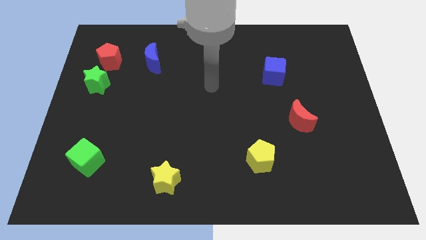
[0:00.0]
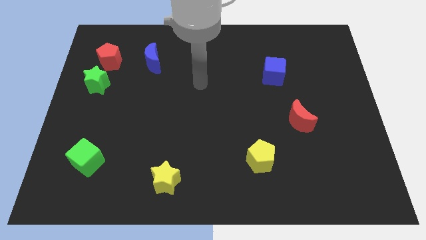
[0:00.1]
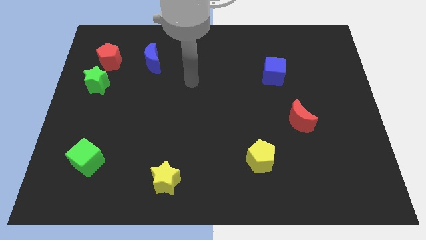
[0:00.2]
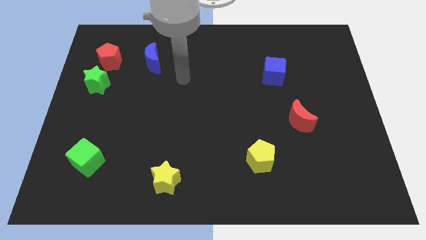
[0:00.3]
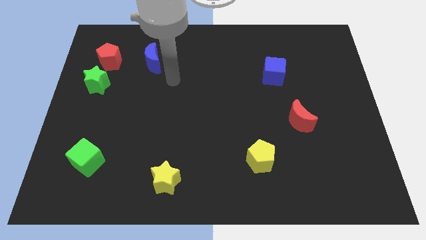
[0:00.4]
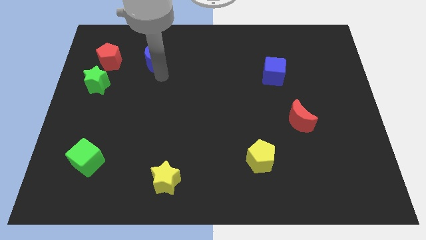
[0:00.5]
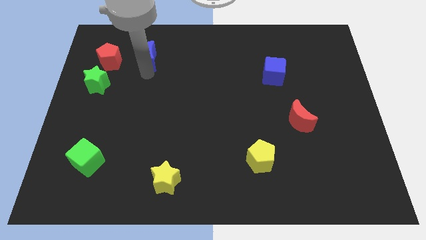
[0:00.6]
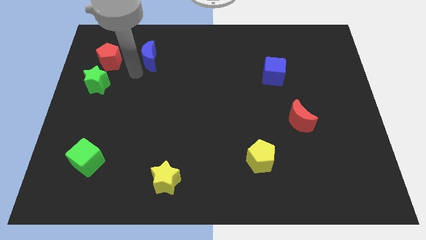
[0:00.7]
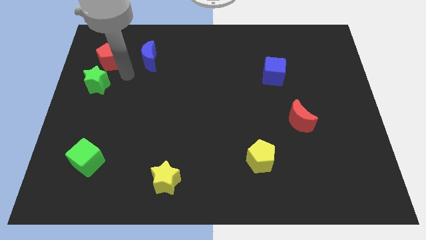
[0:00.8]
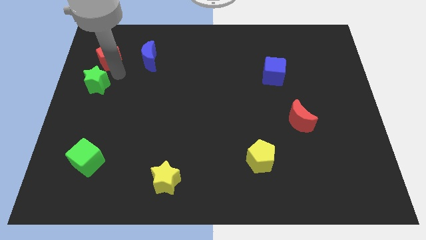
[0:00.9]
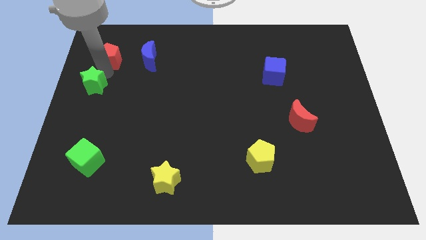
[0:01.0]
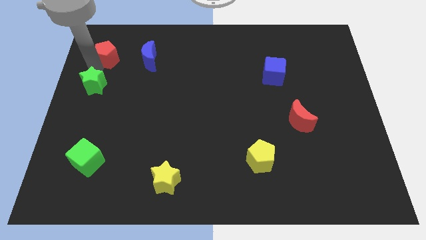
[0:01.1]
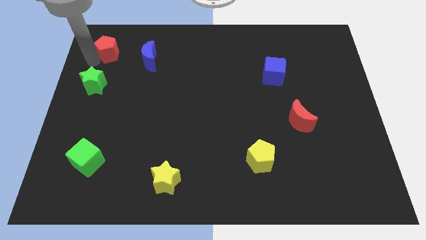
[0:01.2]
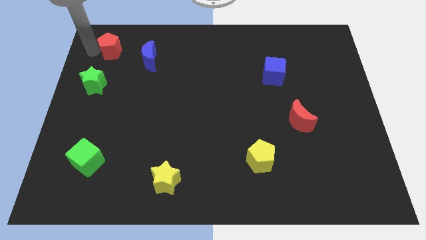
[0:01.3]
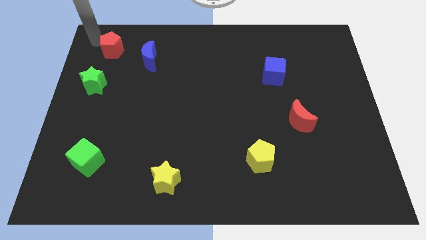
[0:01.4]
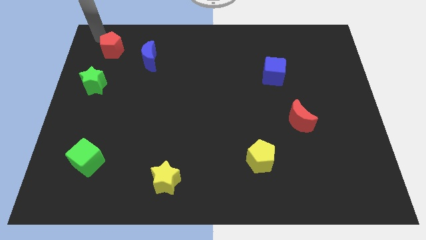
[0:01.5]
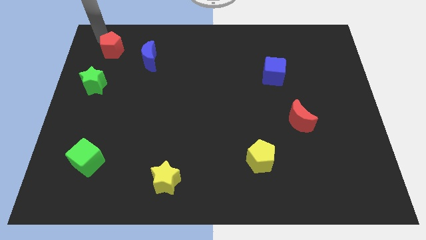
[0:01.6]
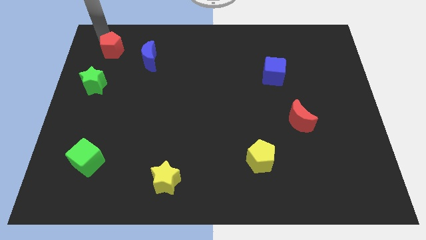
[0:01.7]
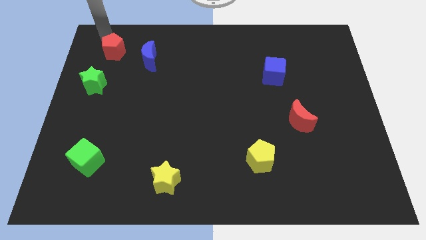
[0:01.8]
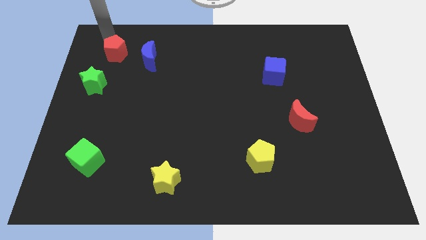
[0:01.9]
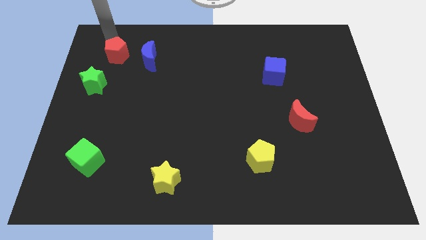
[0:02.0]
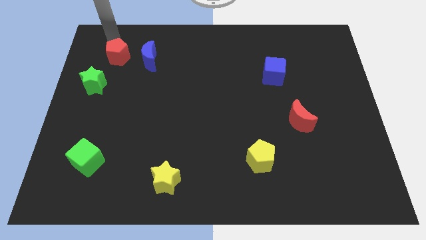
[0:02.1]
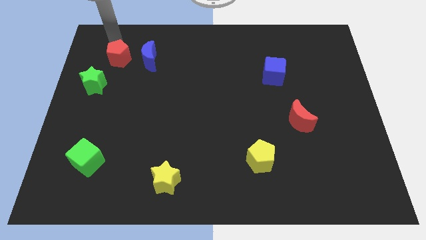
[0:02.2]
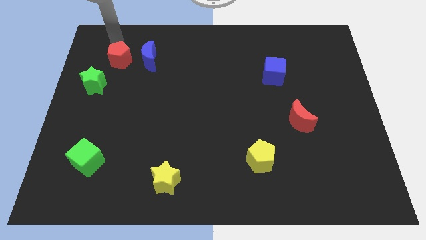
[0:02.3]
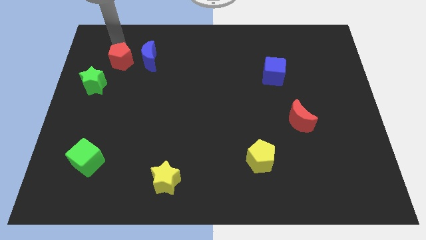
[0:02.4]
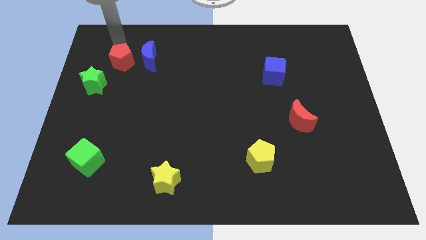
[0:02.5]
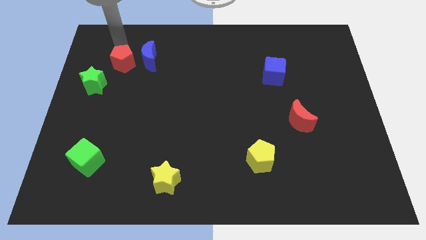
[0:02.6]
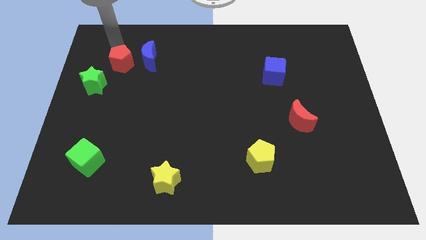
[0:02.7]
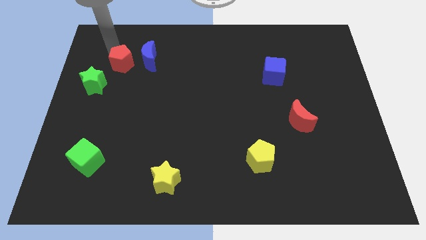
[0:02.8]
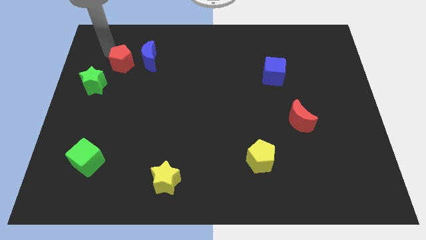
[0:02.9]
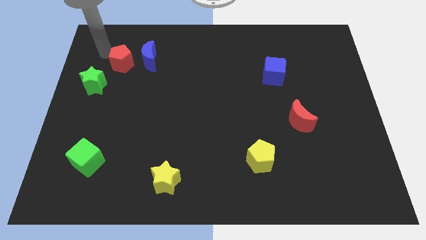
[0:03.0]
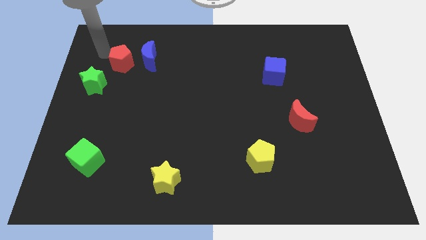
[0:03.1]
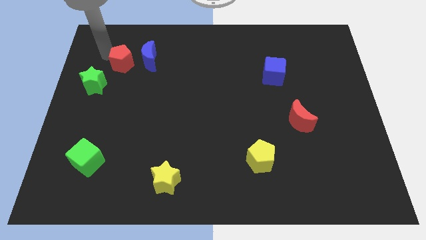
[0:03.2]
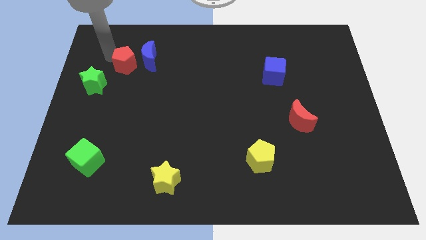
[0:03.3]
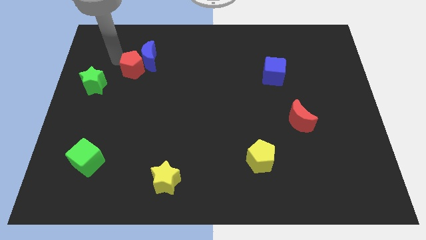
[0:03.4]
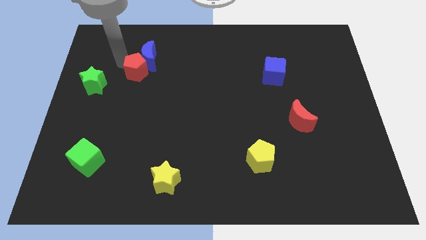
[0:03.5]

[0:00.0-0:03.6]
move the red pentagon to the right somewhat

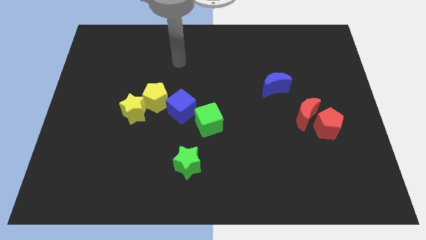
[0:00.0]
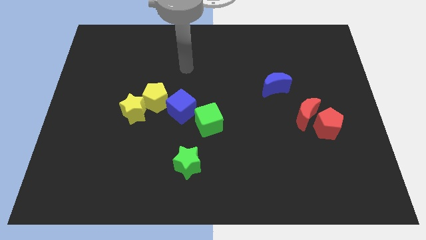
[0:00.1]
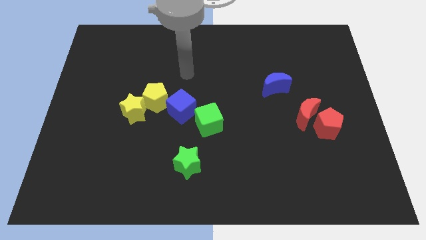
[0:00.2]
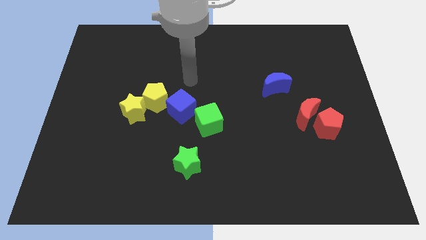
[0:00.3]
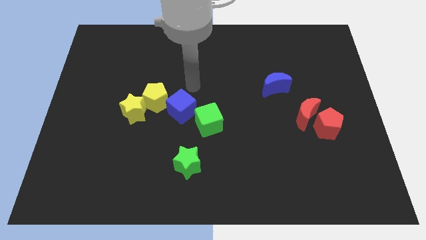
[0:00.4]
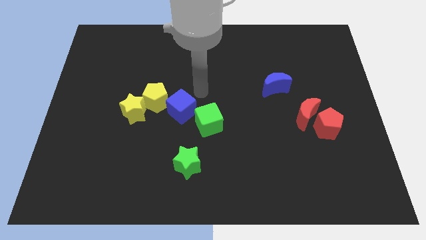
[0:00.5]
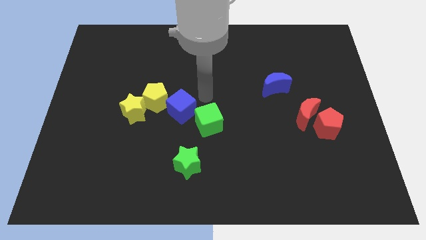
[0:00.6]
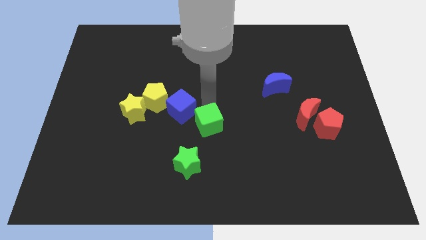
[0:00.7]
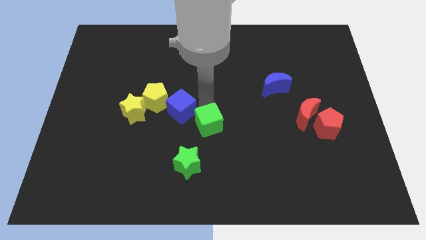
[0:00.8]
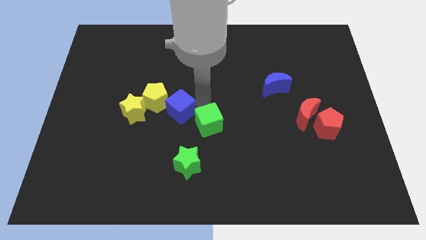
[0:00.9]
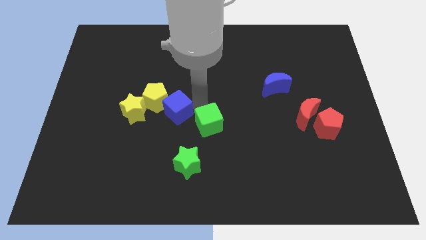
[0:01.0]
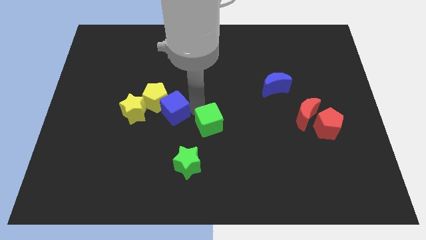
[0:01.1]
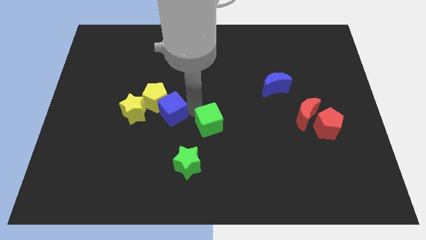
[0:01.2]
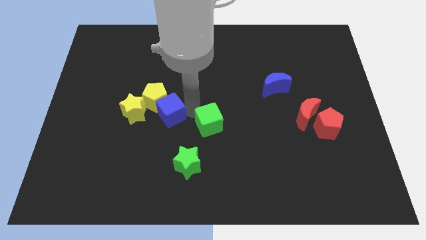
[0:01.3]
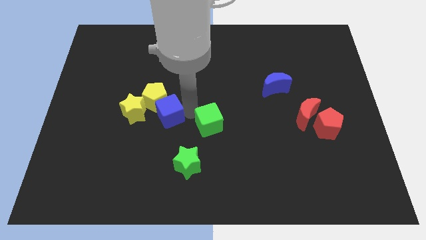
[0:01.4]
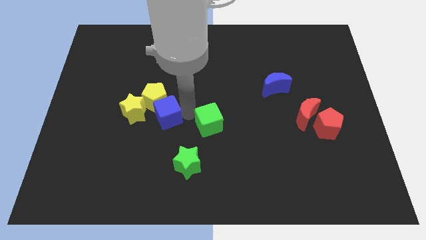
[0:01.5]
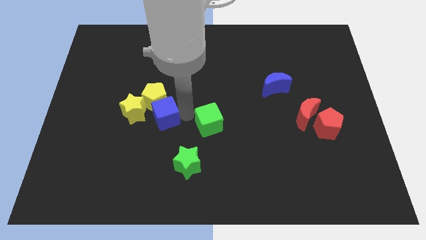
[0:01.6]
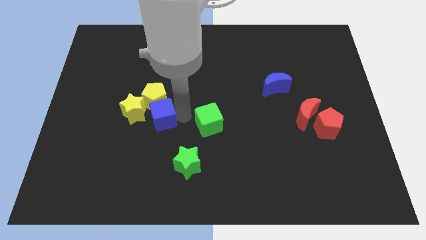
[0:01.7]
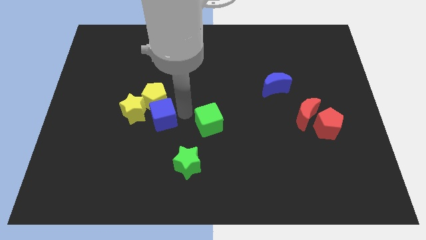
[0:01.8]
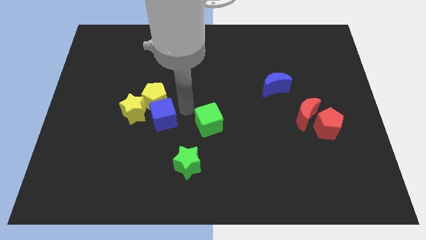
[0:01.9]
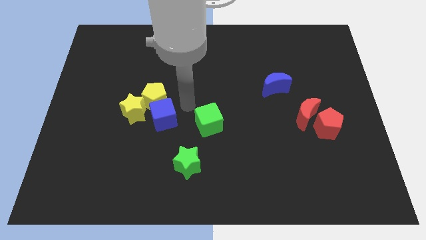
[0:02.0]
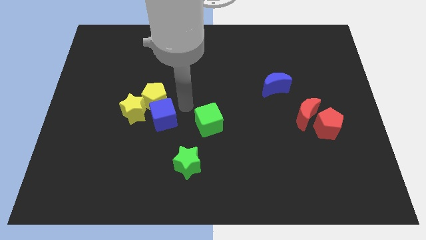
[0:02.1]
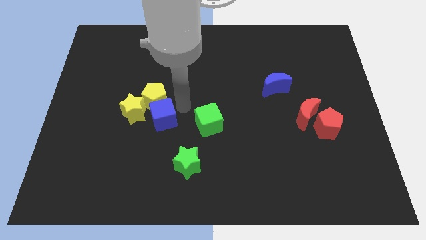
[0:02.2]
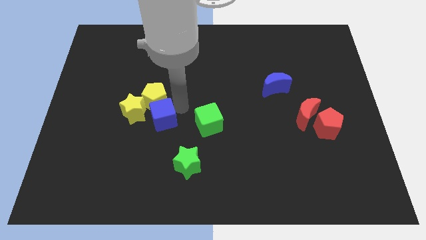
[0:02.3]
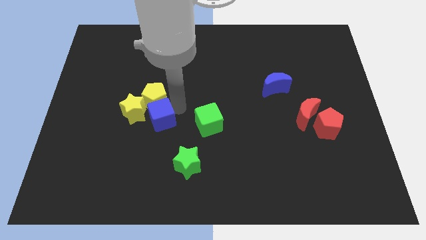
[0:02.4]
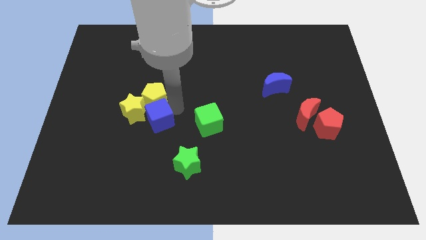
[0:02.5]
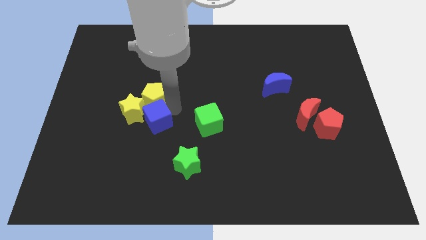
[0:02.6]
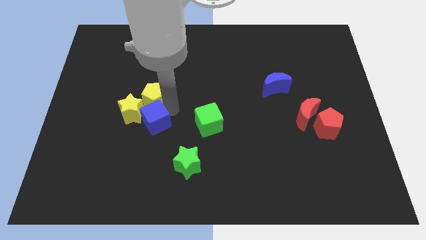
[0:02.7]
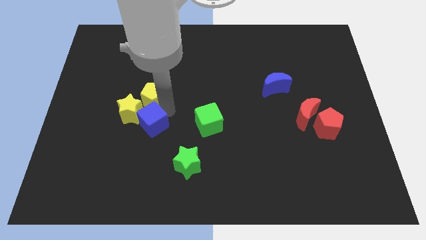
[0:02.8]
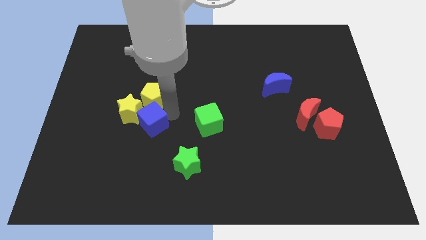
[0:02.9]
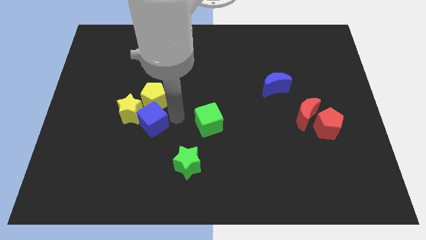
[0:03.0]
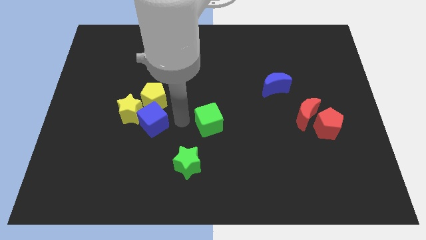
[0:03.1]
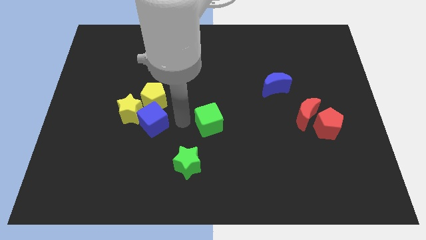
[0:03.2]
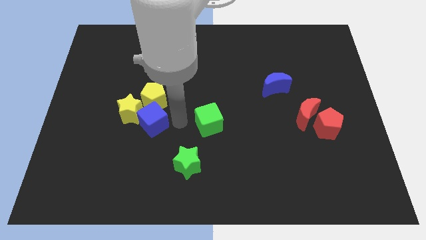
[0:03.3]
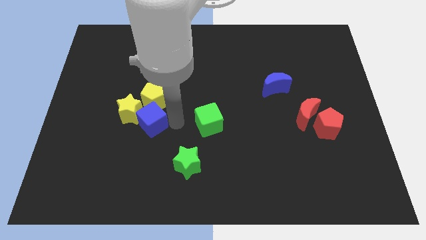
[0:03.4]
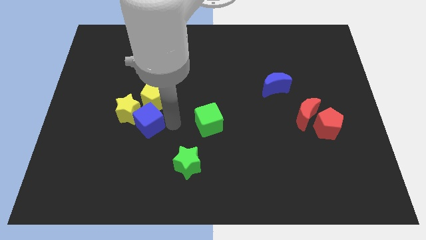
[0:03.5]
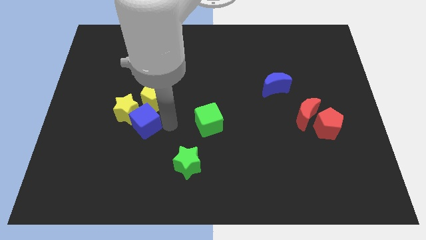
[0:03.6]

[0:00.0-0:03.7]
slightly move the blue cube to the left

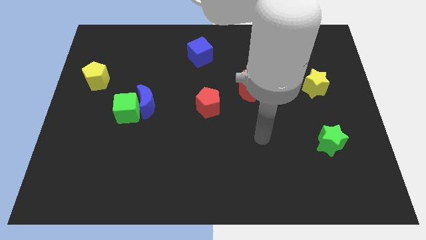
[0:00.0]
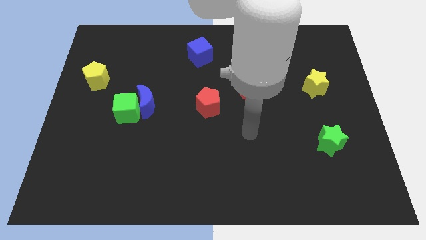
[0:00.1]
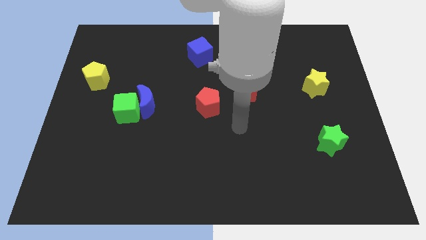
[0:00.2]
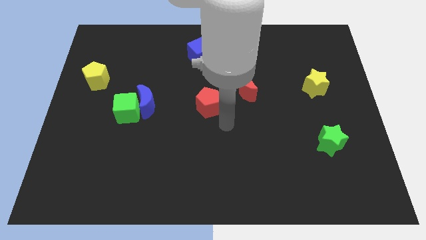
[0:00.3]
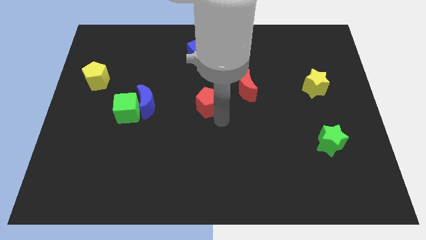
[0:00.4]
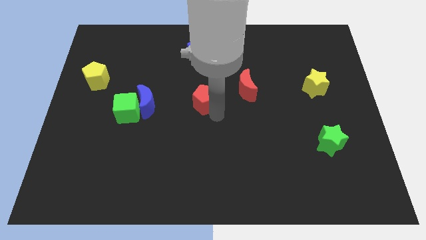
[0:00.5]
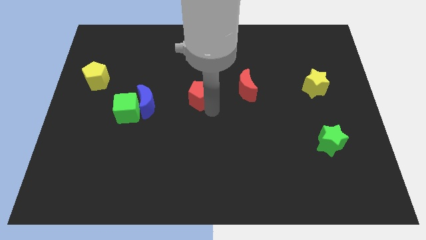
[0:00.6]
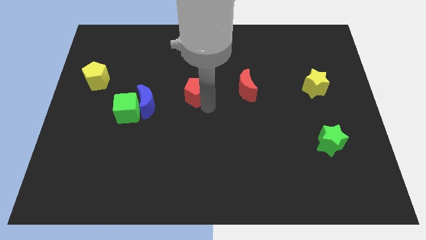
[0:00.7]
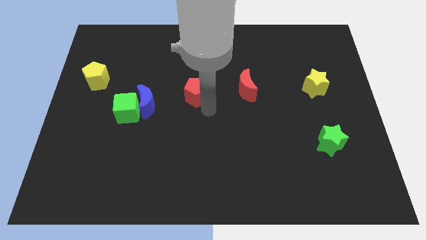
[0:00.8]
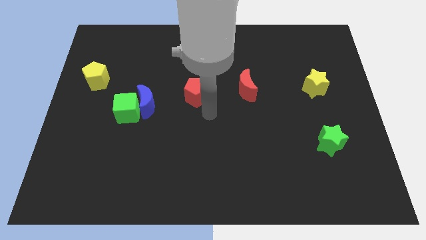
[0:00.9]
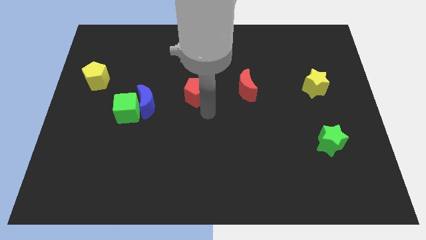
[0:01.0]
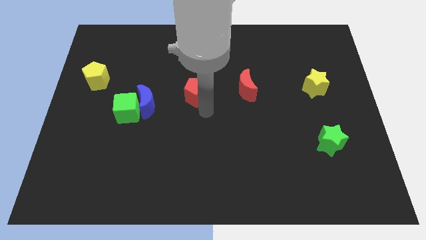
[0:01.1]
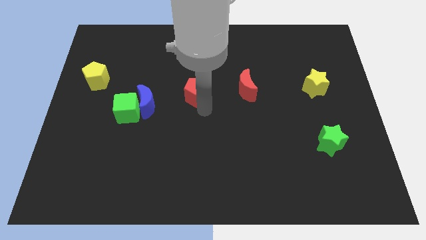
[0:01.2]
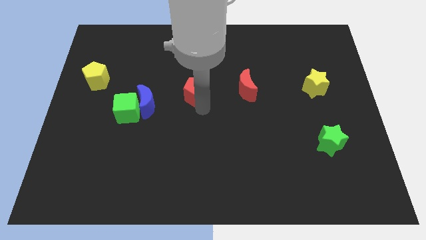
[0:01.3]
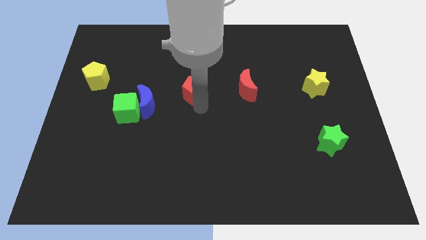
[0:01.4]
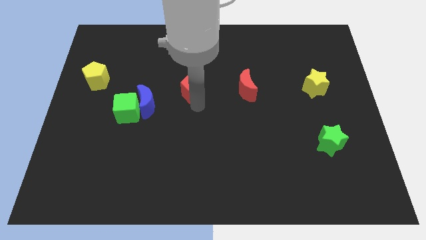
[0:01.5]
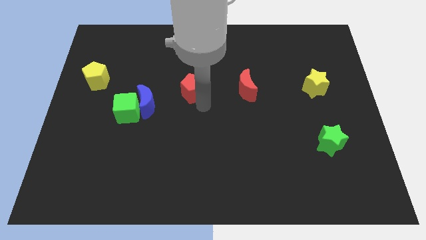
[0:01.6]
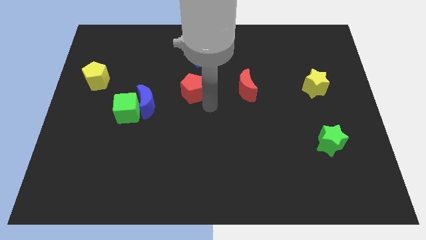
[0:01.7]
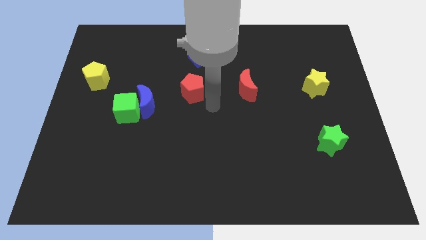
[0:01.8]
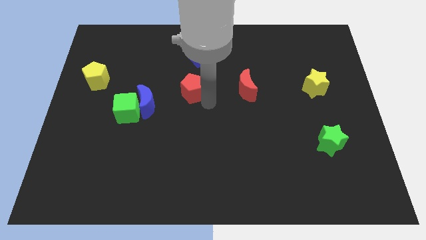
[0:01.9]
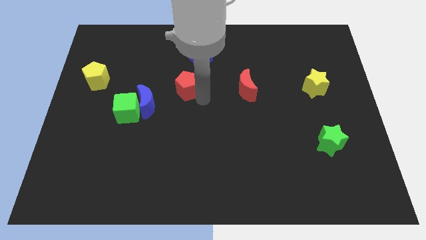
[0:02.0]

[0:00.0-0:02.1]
move the red pentagon a little upwards and then left
